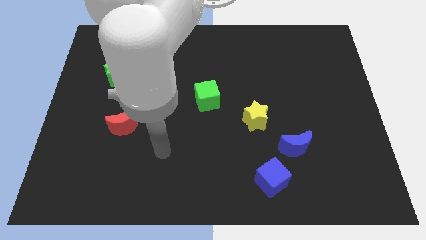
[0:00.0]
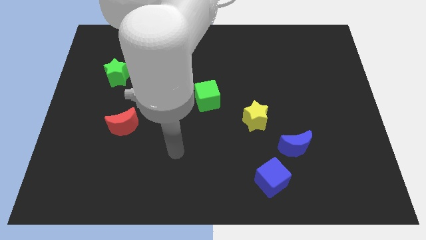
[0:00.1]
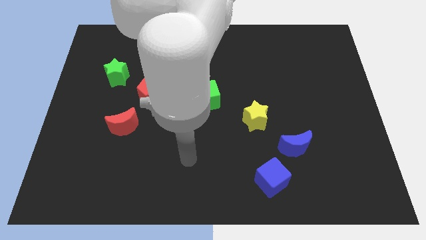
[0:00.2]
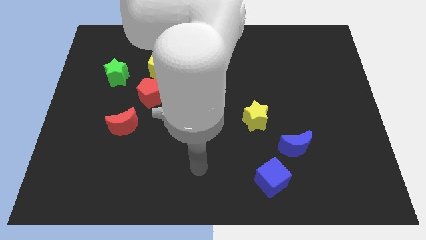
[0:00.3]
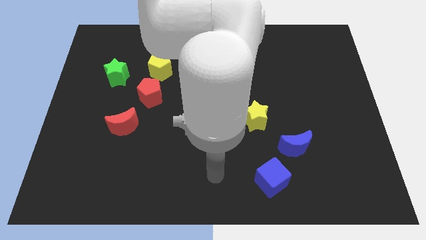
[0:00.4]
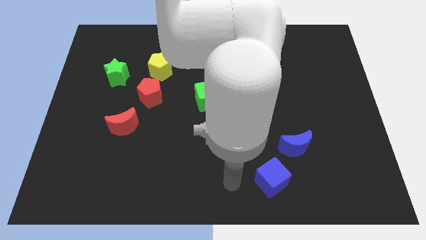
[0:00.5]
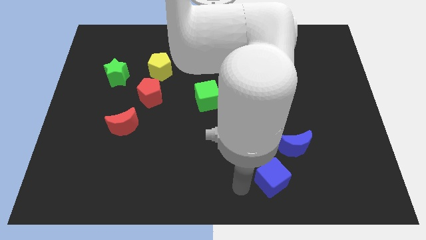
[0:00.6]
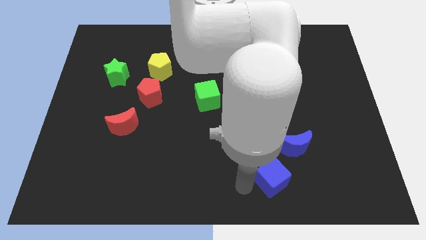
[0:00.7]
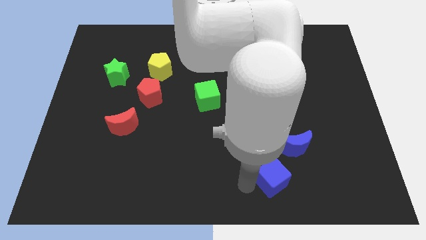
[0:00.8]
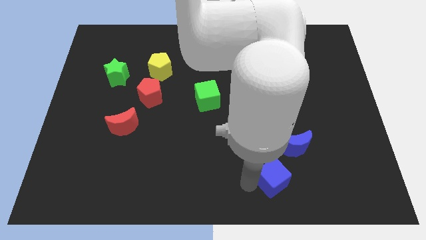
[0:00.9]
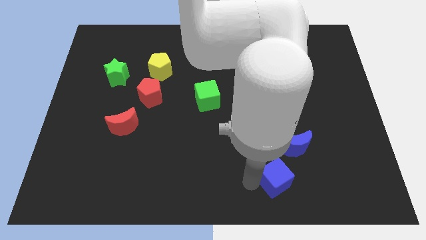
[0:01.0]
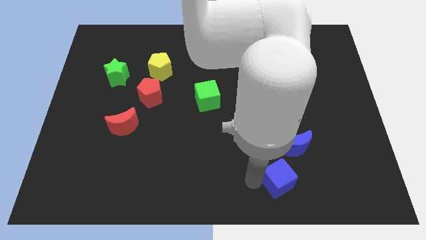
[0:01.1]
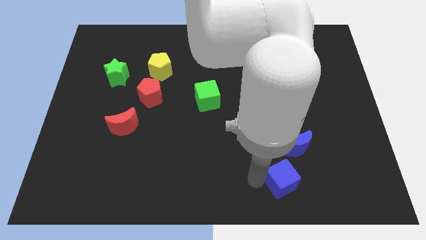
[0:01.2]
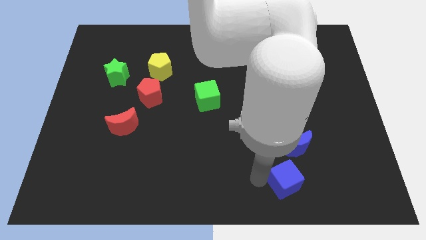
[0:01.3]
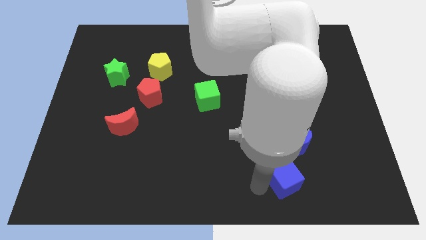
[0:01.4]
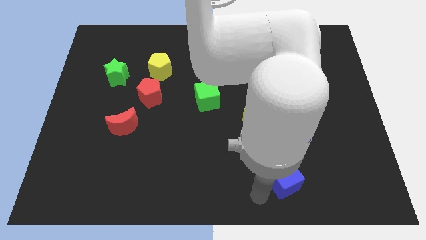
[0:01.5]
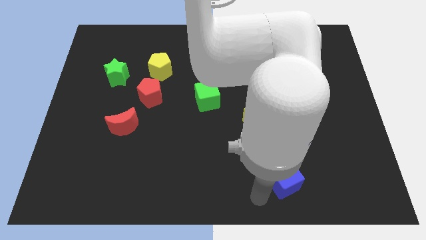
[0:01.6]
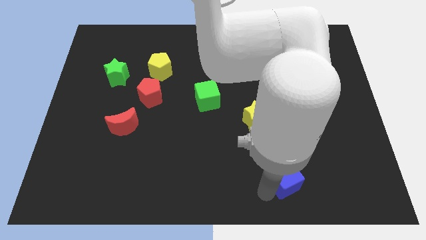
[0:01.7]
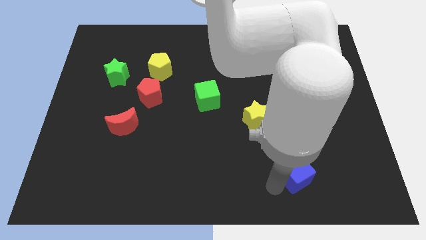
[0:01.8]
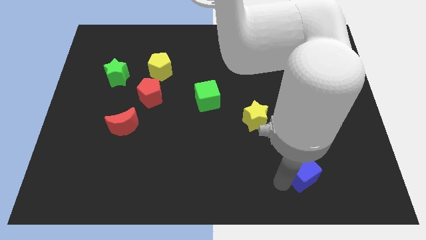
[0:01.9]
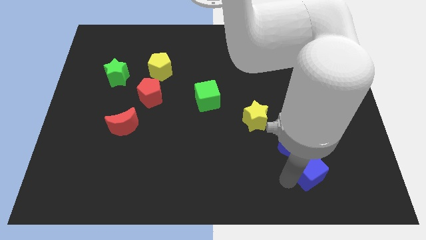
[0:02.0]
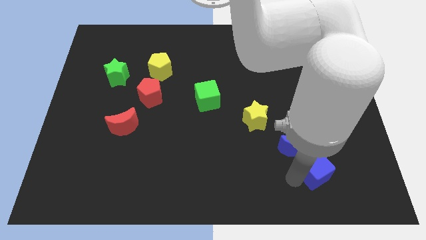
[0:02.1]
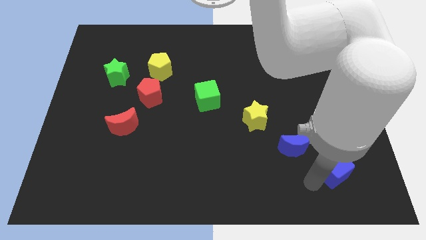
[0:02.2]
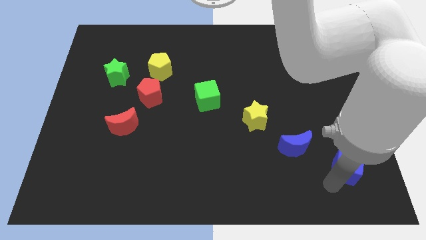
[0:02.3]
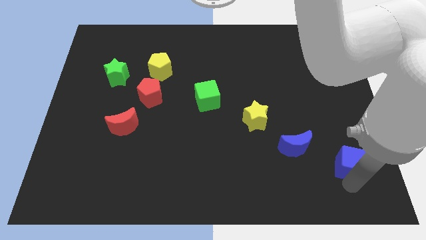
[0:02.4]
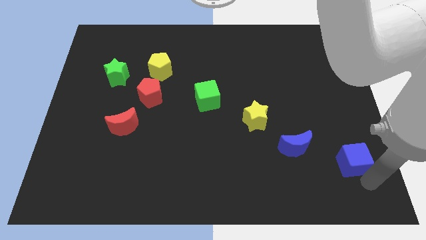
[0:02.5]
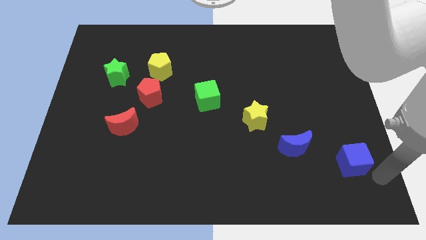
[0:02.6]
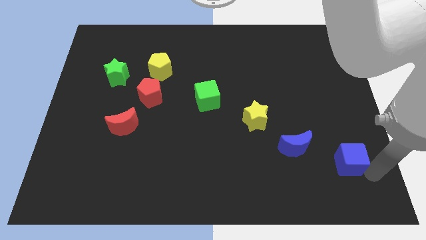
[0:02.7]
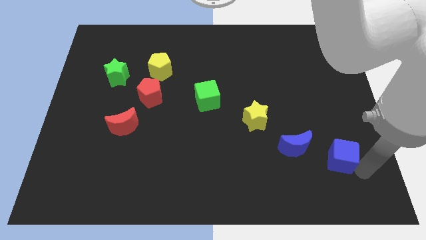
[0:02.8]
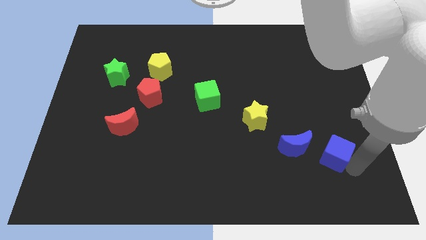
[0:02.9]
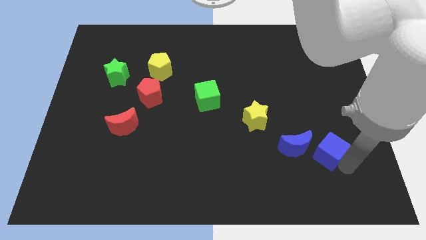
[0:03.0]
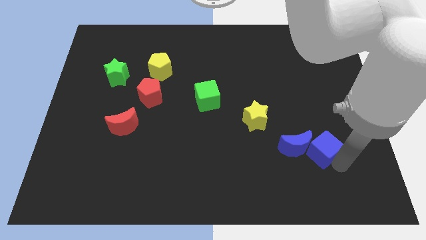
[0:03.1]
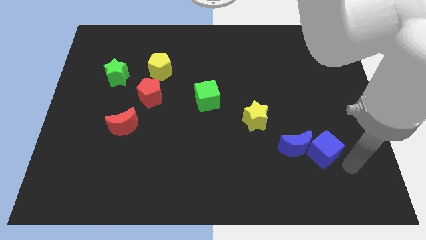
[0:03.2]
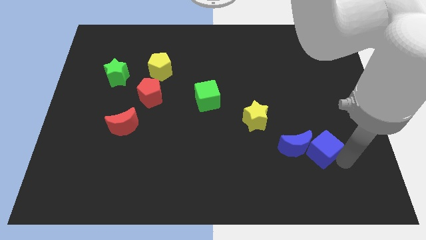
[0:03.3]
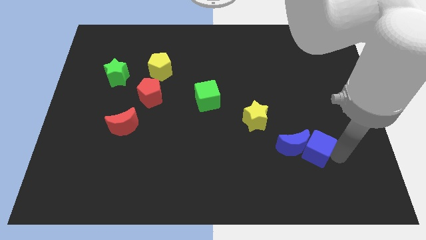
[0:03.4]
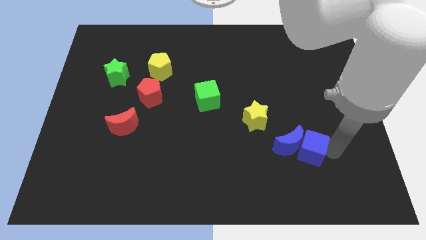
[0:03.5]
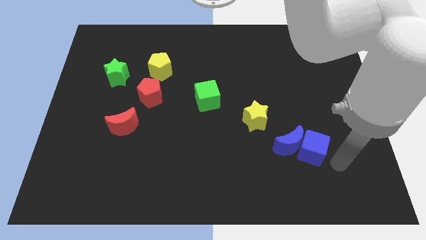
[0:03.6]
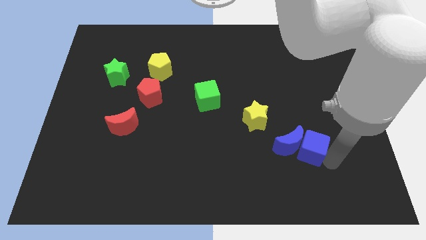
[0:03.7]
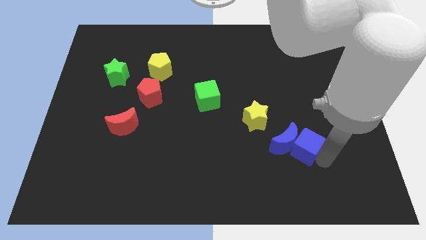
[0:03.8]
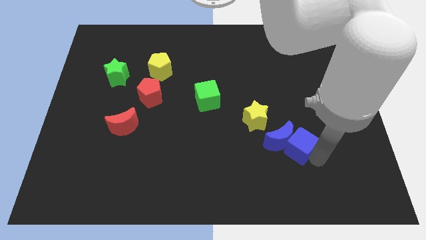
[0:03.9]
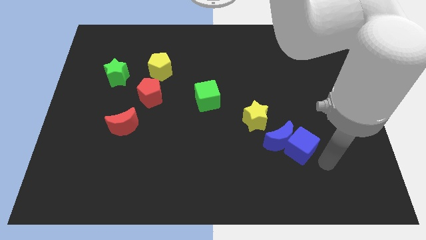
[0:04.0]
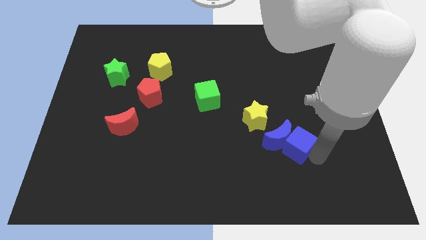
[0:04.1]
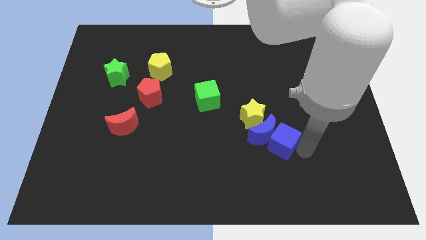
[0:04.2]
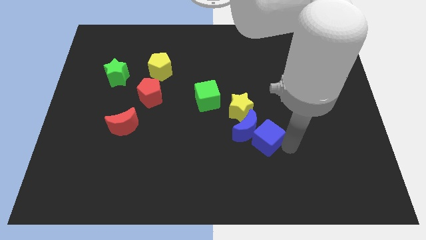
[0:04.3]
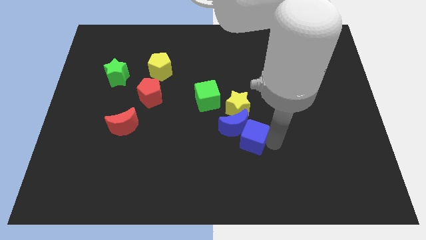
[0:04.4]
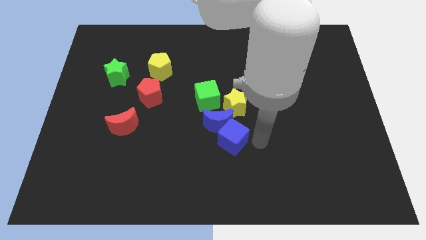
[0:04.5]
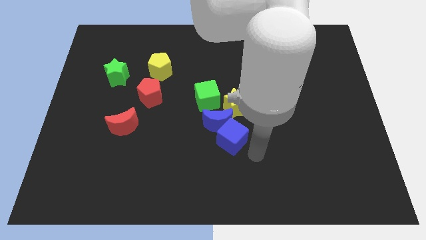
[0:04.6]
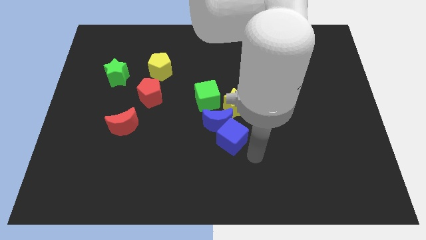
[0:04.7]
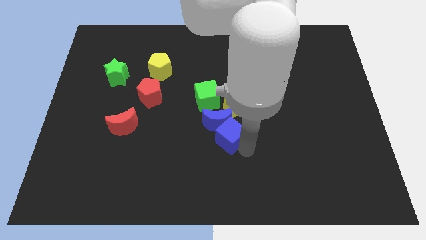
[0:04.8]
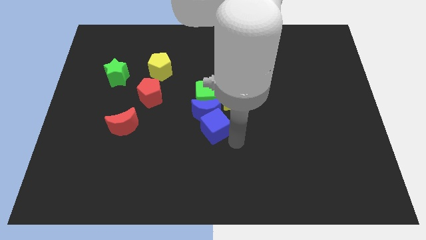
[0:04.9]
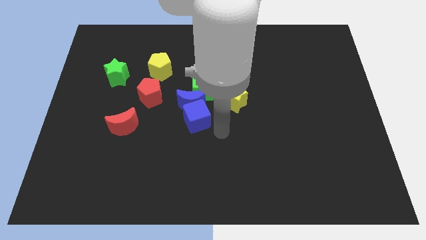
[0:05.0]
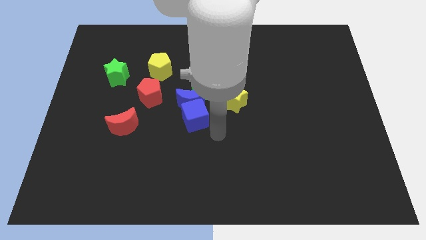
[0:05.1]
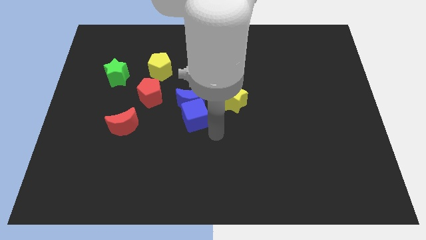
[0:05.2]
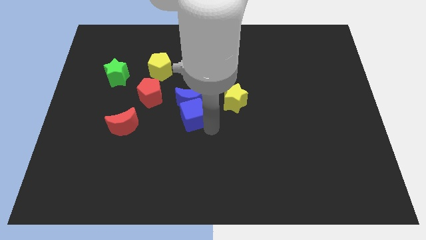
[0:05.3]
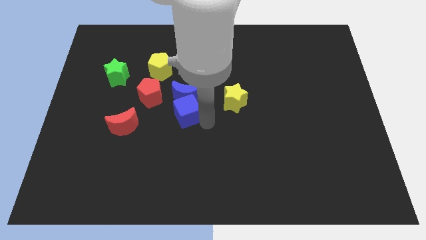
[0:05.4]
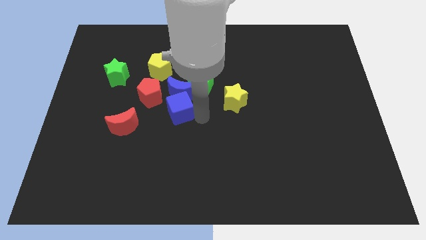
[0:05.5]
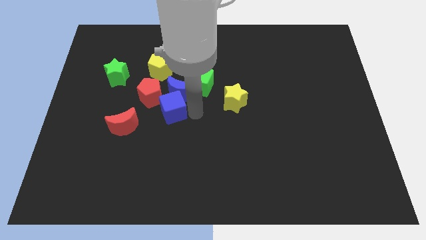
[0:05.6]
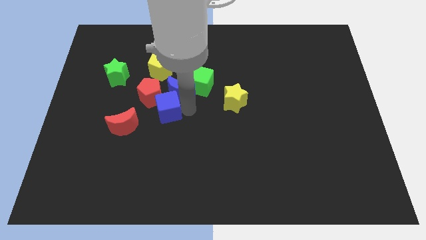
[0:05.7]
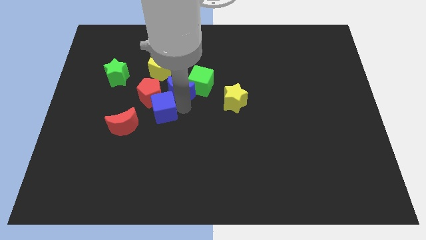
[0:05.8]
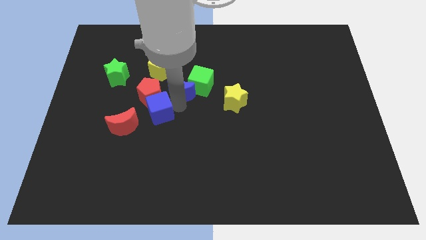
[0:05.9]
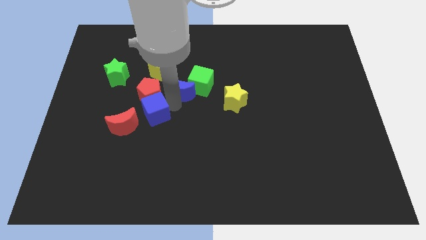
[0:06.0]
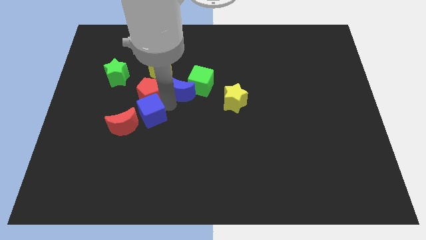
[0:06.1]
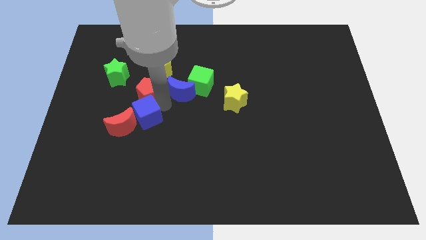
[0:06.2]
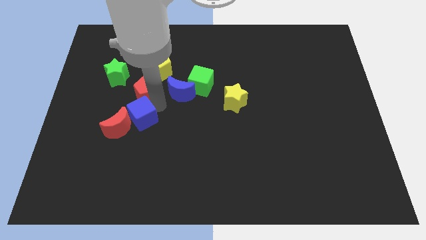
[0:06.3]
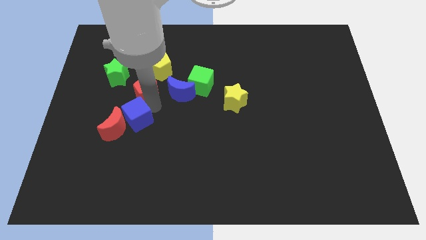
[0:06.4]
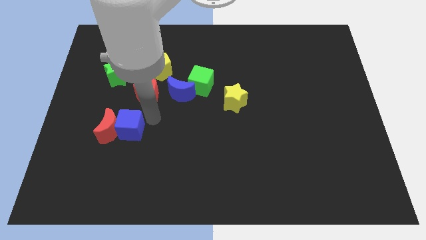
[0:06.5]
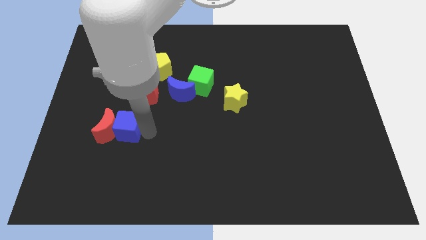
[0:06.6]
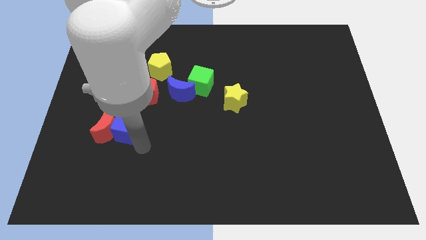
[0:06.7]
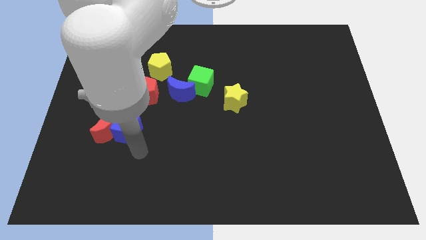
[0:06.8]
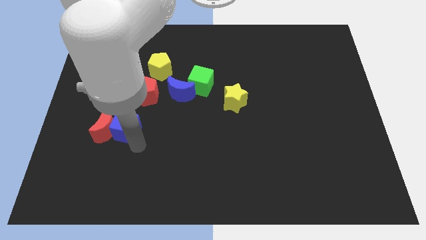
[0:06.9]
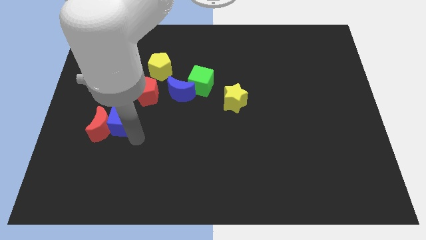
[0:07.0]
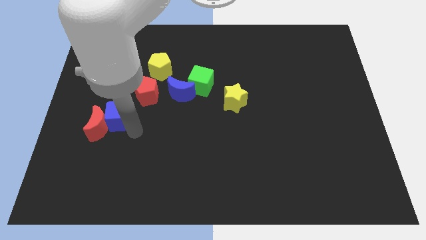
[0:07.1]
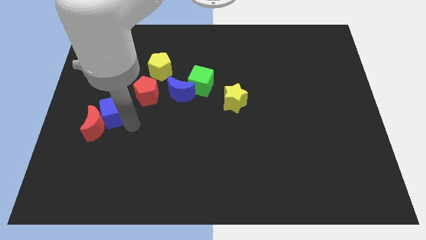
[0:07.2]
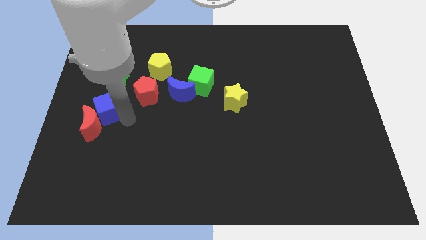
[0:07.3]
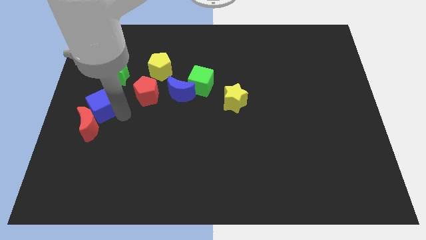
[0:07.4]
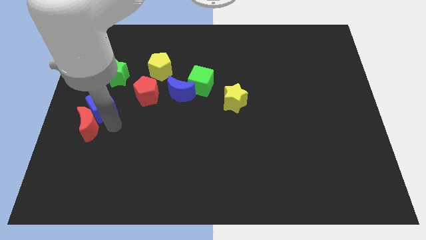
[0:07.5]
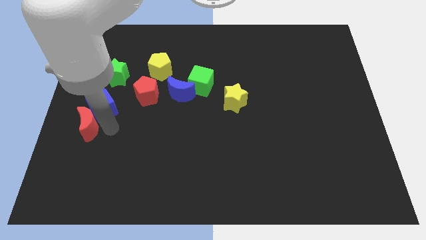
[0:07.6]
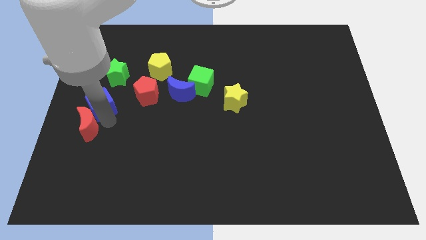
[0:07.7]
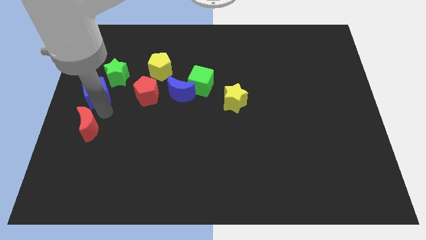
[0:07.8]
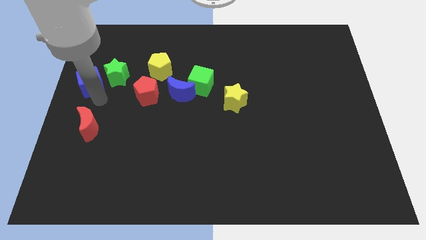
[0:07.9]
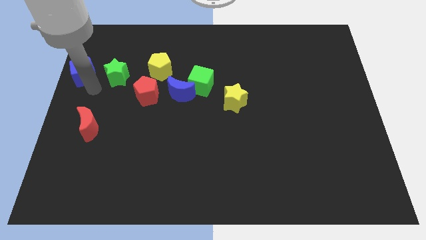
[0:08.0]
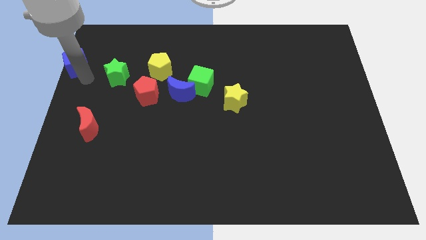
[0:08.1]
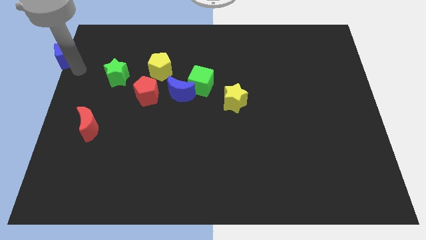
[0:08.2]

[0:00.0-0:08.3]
move the blue cube to the top left
